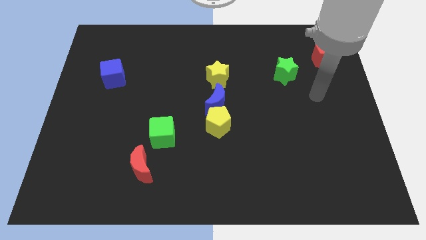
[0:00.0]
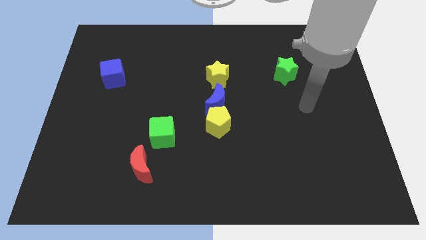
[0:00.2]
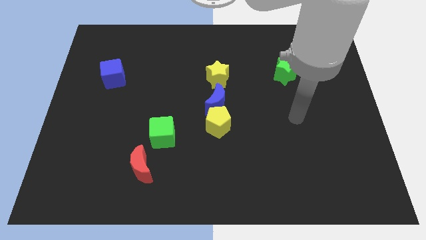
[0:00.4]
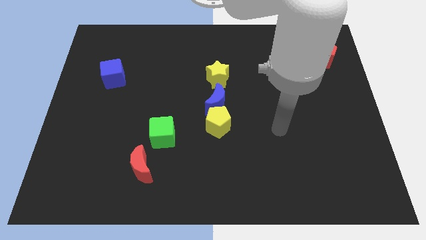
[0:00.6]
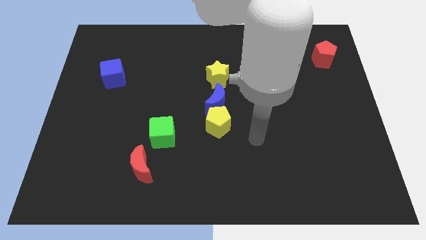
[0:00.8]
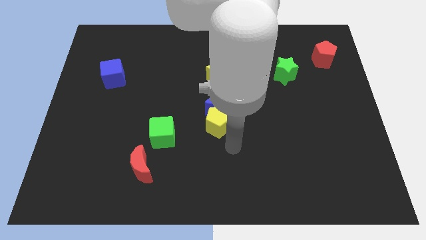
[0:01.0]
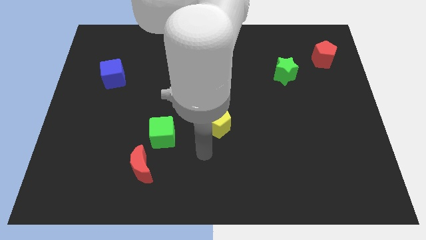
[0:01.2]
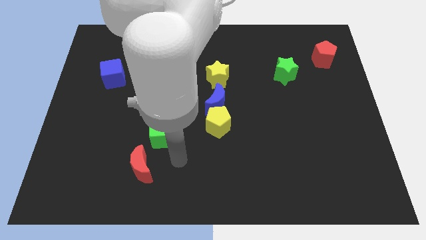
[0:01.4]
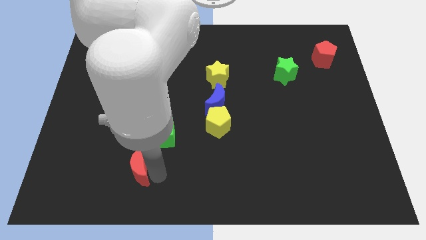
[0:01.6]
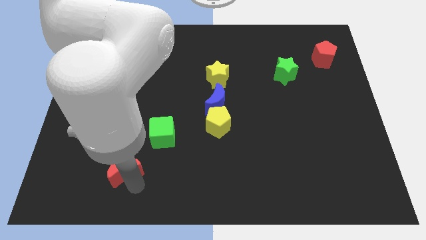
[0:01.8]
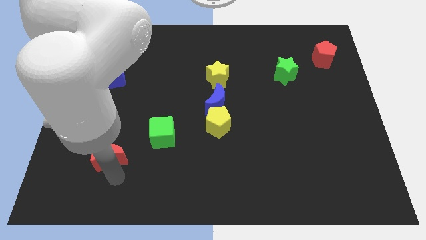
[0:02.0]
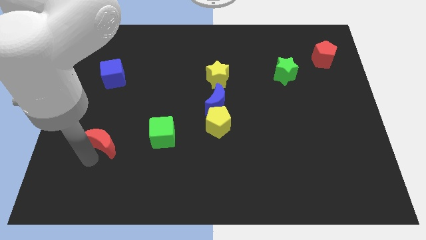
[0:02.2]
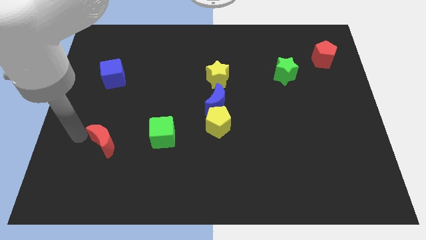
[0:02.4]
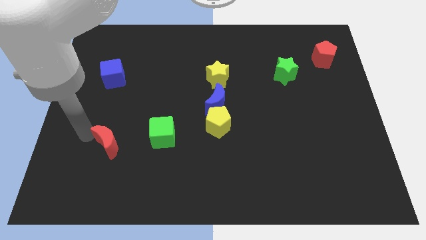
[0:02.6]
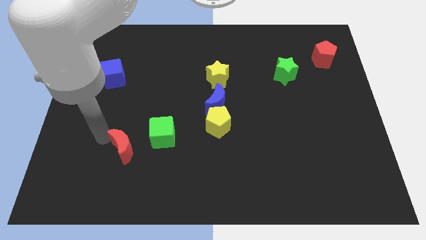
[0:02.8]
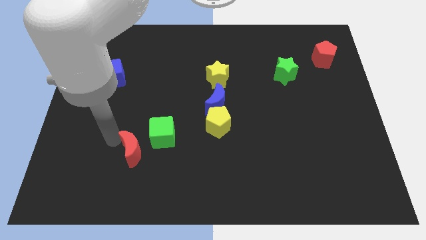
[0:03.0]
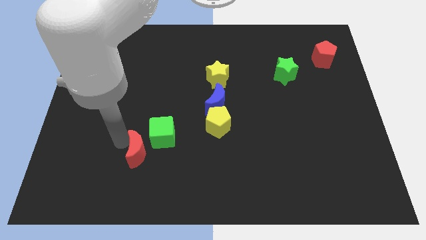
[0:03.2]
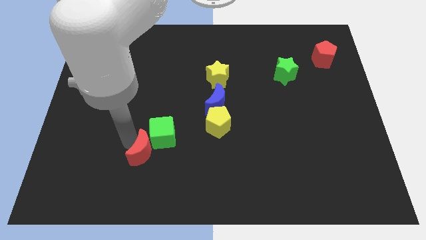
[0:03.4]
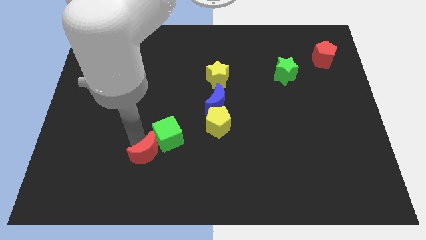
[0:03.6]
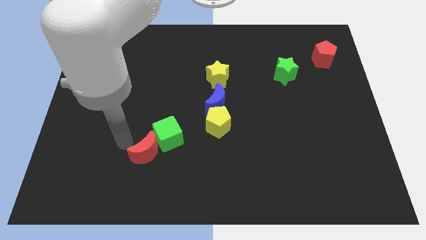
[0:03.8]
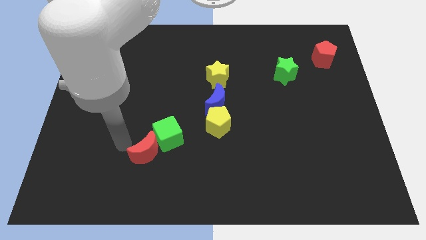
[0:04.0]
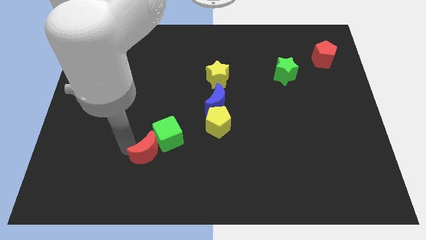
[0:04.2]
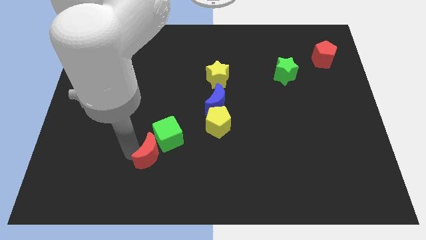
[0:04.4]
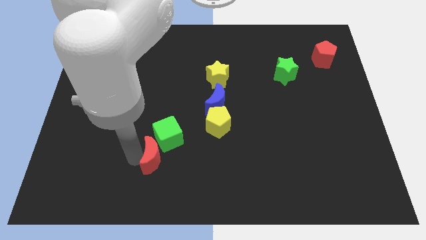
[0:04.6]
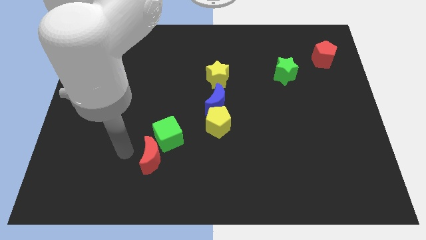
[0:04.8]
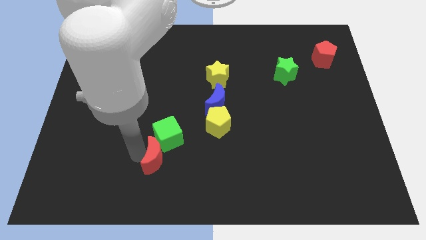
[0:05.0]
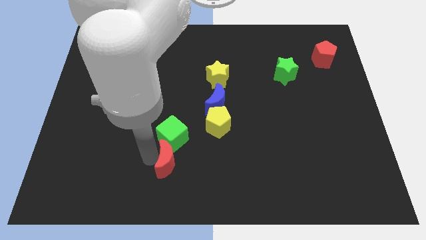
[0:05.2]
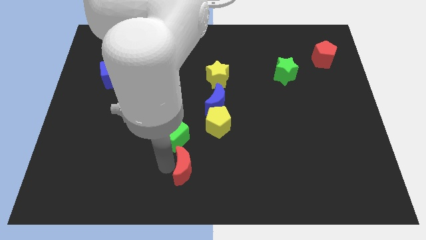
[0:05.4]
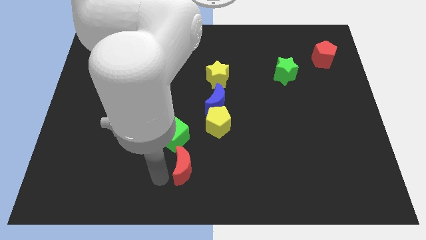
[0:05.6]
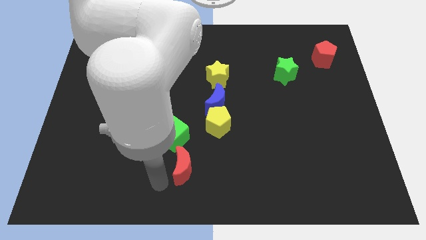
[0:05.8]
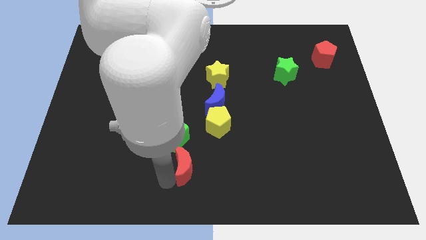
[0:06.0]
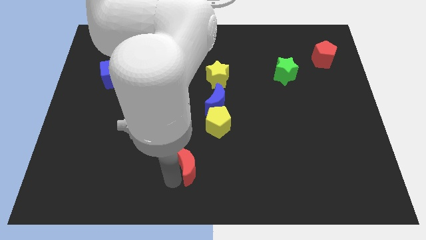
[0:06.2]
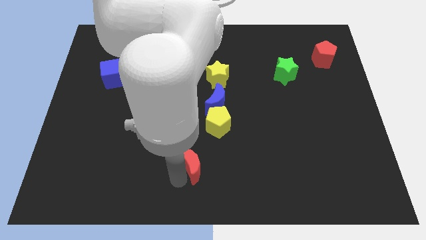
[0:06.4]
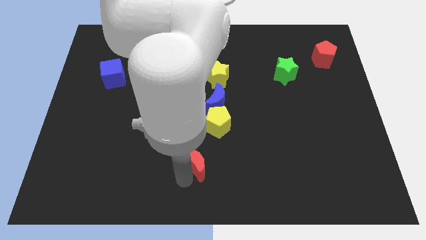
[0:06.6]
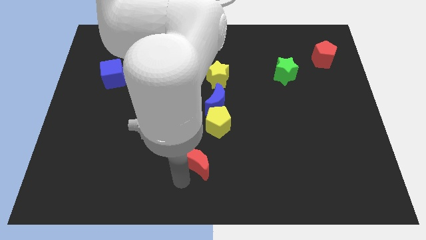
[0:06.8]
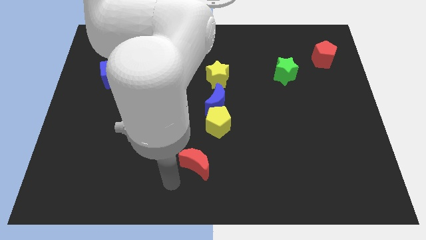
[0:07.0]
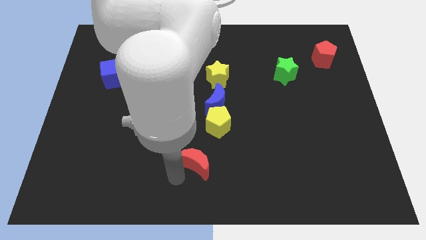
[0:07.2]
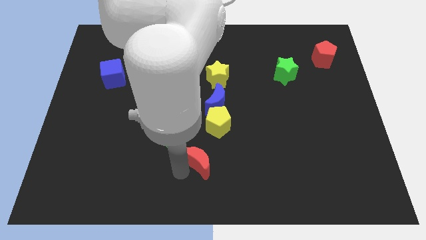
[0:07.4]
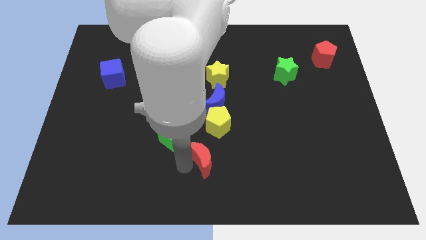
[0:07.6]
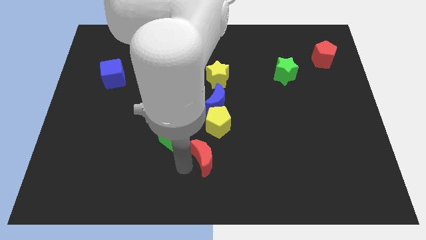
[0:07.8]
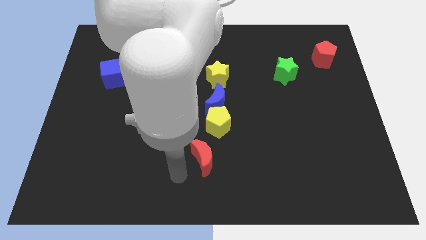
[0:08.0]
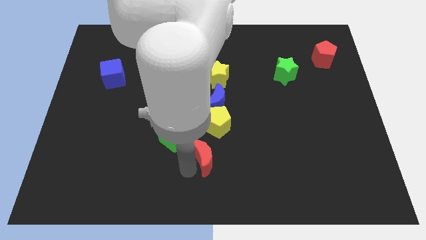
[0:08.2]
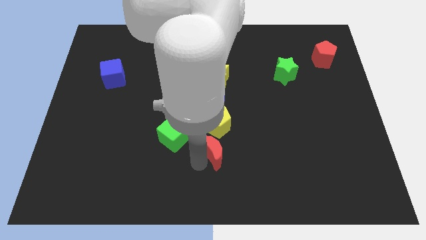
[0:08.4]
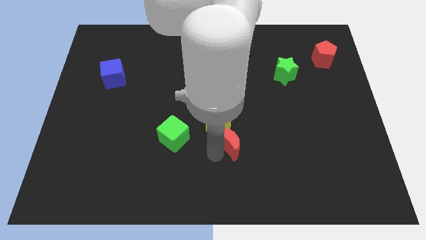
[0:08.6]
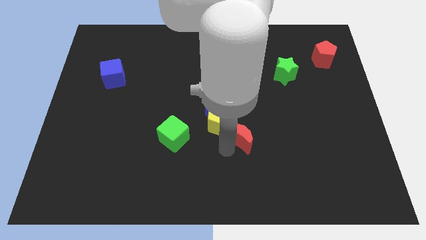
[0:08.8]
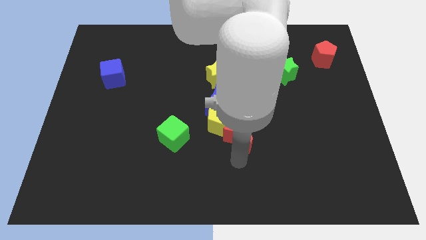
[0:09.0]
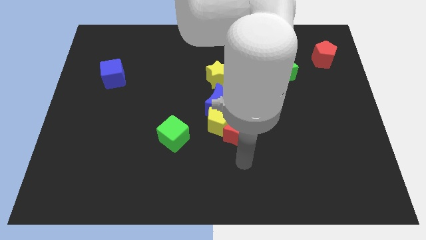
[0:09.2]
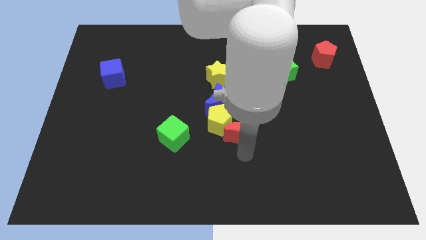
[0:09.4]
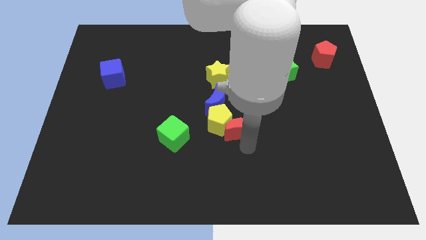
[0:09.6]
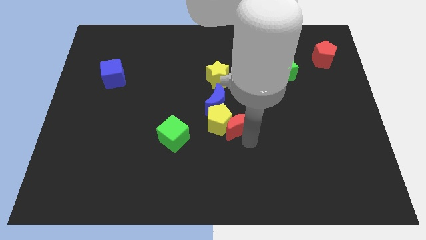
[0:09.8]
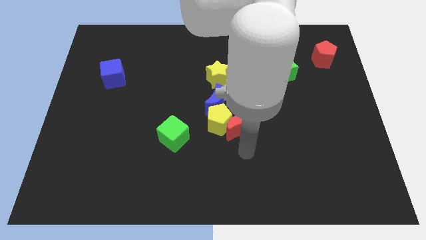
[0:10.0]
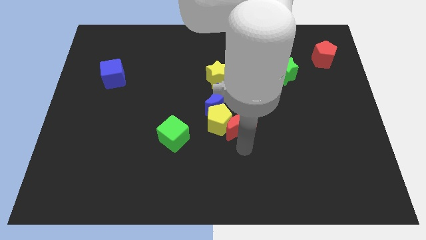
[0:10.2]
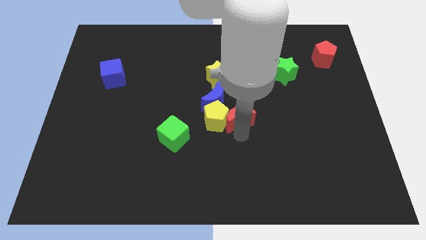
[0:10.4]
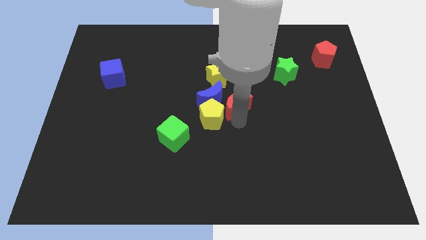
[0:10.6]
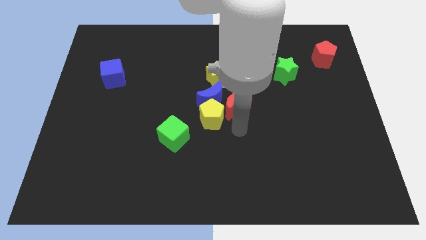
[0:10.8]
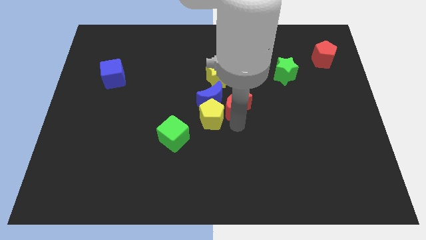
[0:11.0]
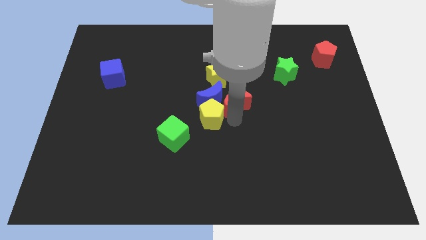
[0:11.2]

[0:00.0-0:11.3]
move the red moon to the top right side of the blue moon

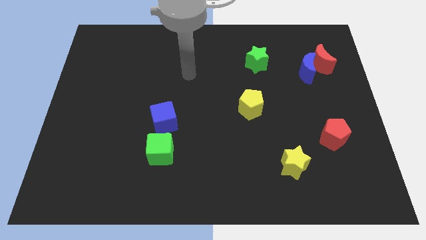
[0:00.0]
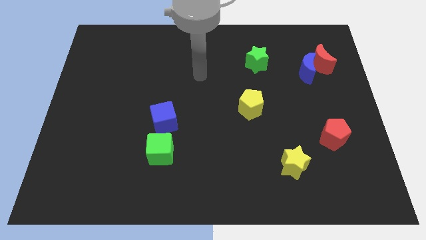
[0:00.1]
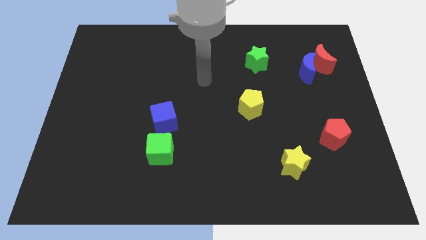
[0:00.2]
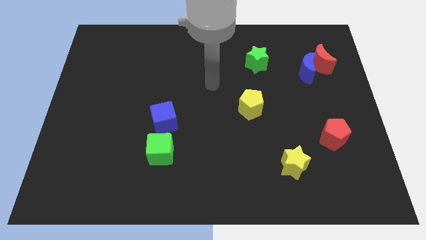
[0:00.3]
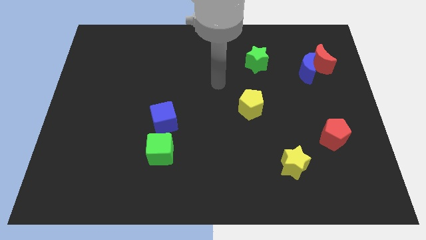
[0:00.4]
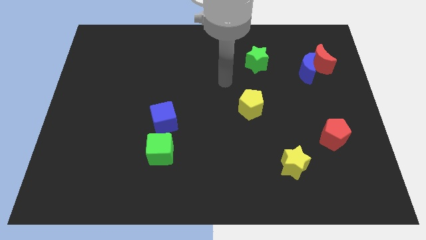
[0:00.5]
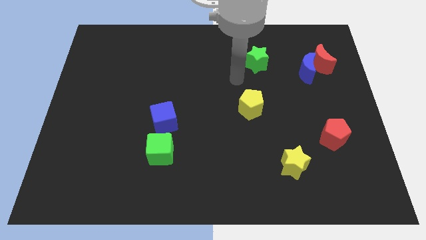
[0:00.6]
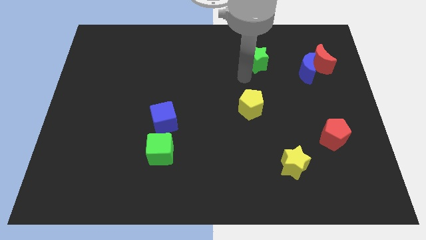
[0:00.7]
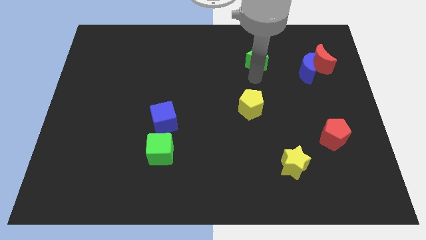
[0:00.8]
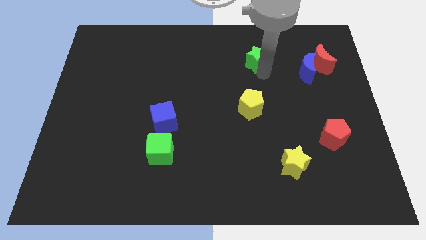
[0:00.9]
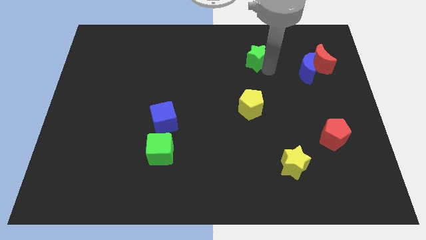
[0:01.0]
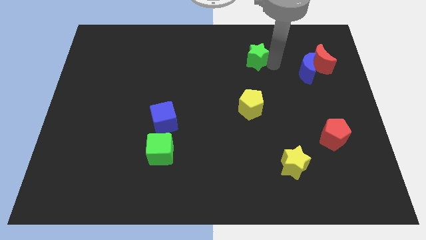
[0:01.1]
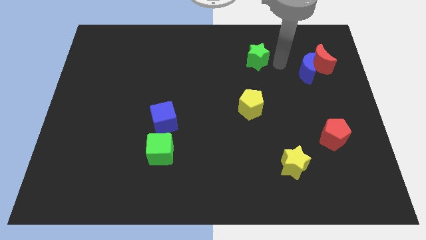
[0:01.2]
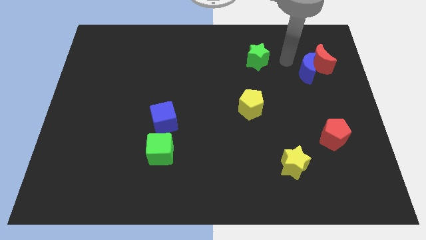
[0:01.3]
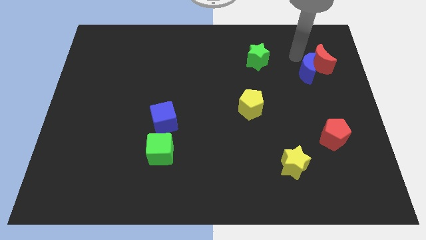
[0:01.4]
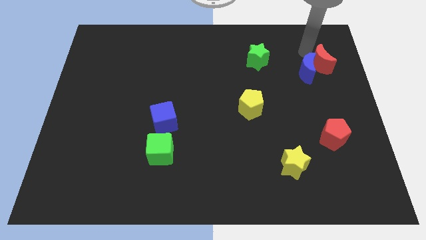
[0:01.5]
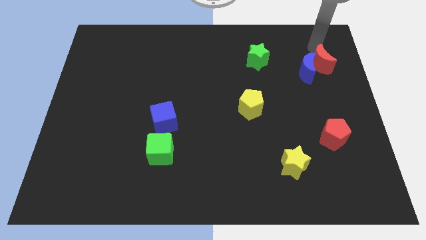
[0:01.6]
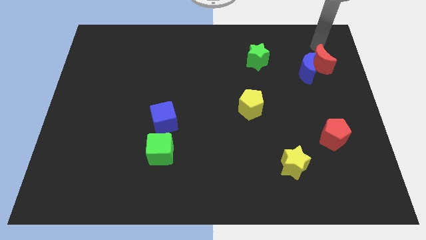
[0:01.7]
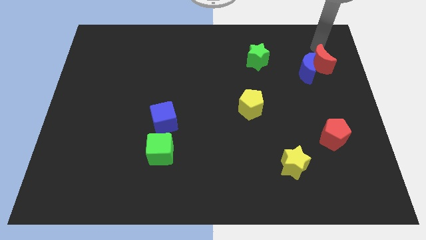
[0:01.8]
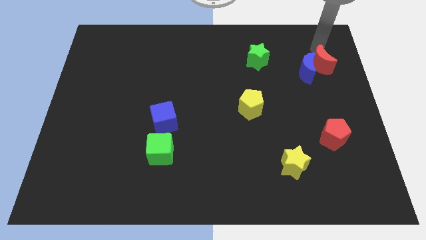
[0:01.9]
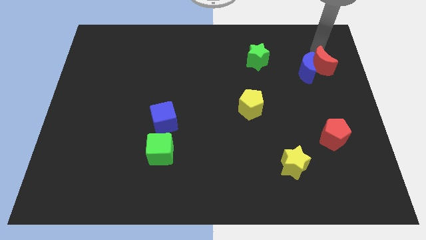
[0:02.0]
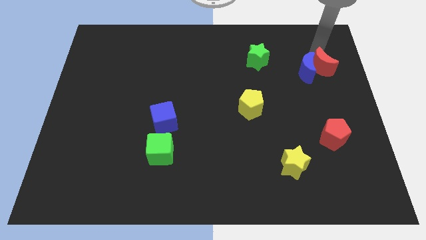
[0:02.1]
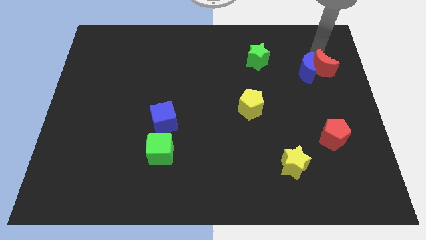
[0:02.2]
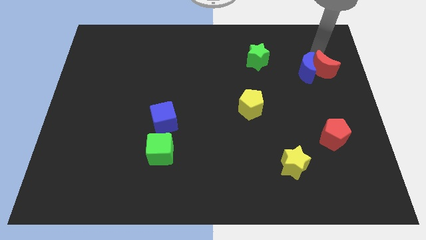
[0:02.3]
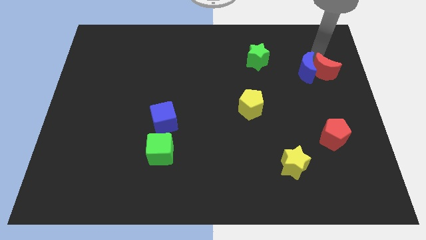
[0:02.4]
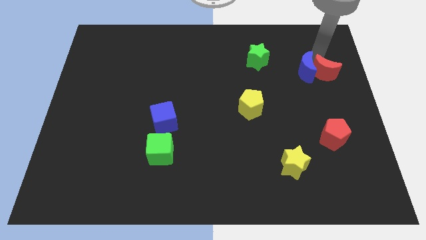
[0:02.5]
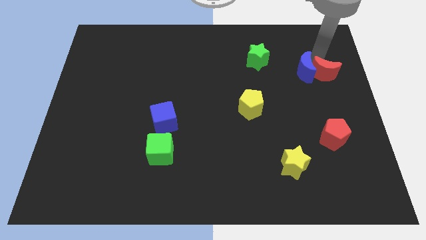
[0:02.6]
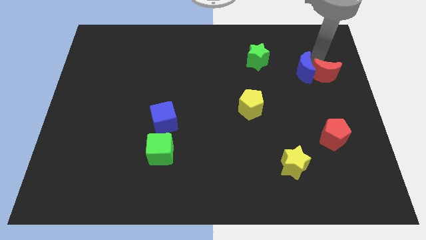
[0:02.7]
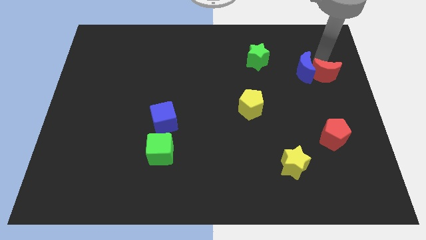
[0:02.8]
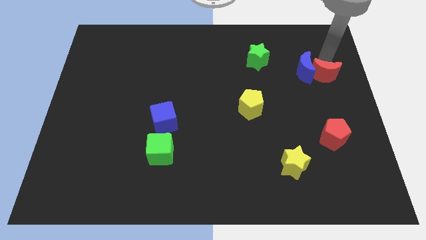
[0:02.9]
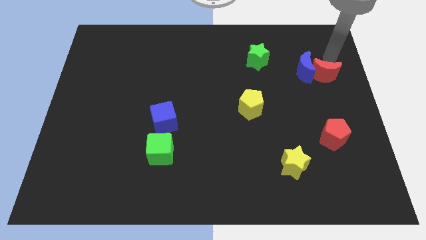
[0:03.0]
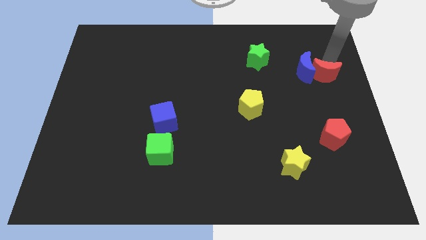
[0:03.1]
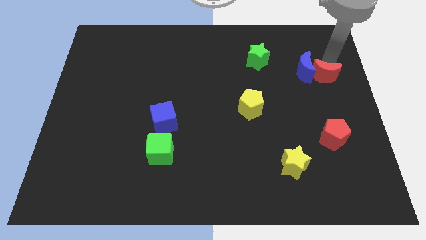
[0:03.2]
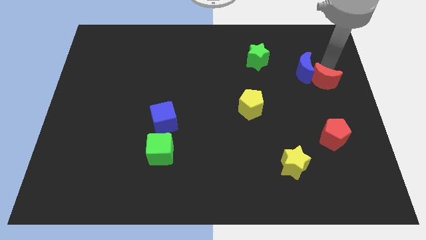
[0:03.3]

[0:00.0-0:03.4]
put the red moon below the blue moon
